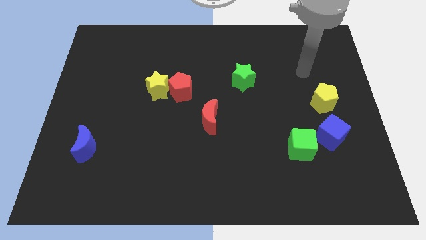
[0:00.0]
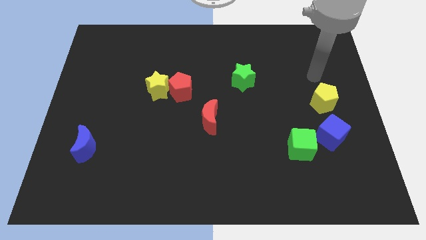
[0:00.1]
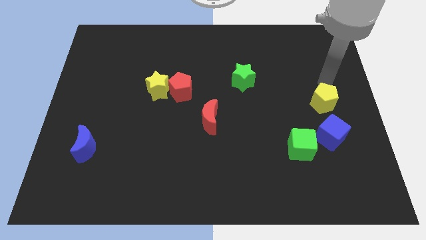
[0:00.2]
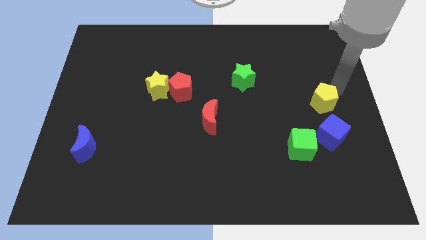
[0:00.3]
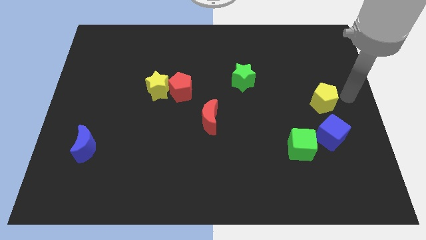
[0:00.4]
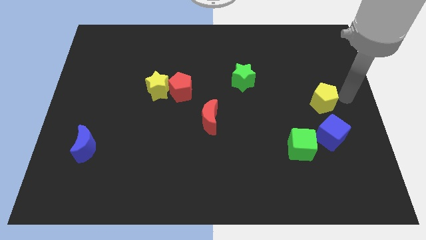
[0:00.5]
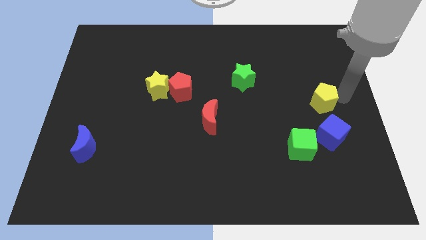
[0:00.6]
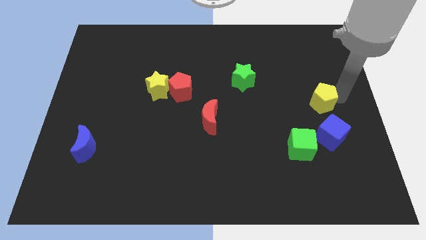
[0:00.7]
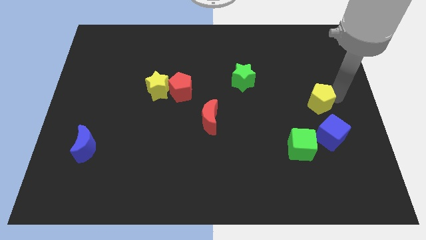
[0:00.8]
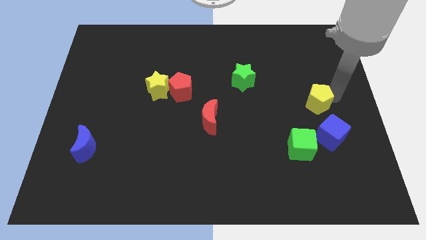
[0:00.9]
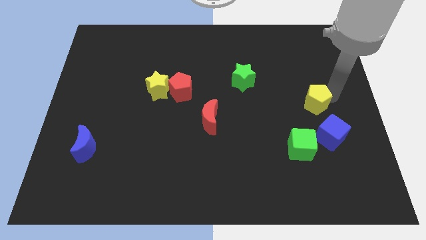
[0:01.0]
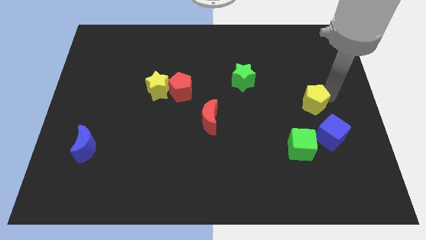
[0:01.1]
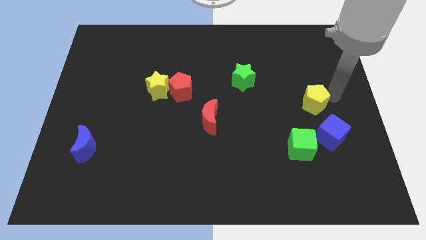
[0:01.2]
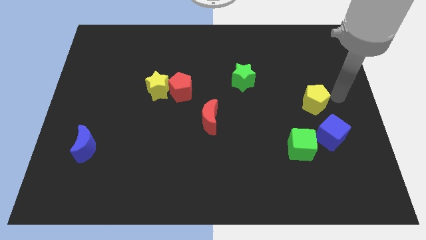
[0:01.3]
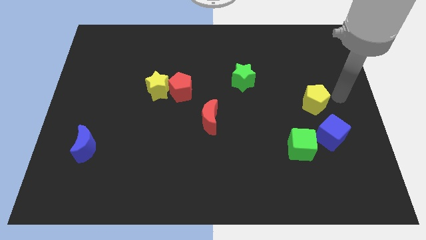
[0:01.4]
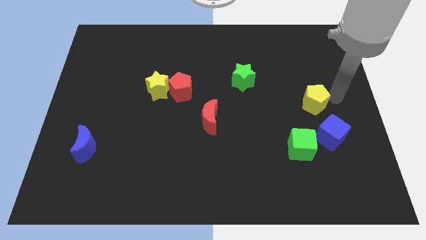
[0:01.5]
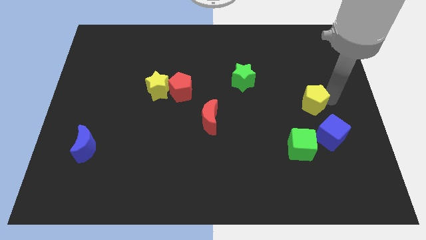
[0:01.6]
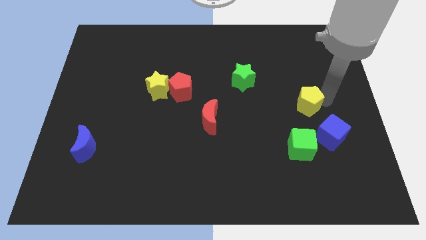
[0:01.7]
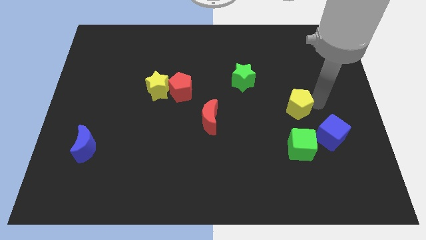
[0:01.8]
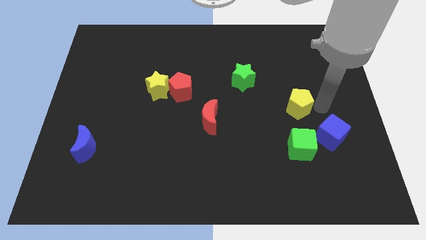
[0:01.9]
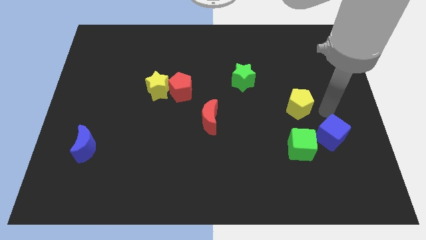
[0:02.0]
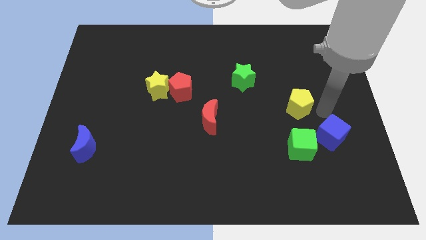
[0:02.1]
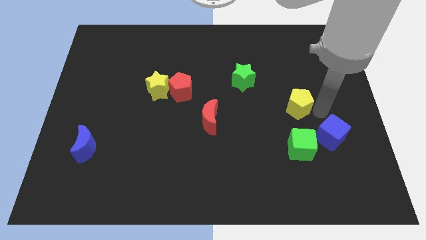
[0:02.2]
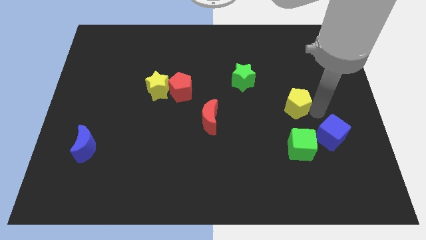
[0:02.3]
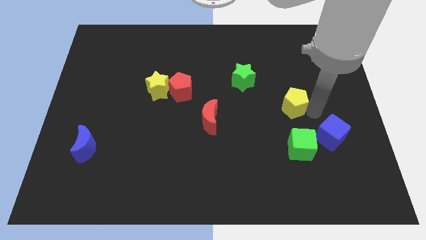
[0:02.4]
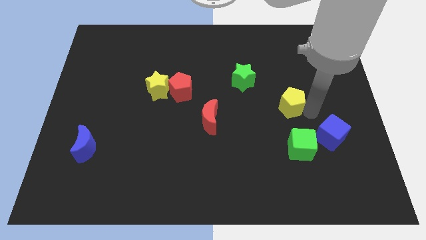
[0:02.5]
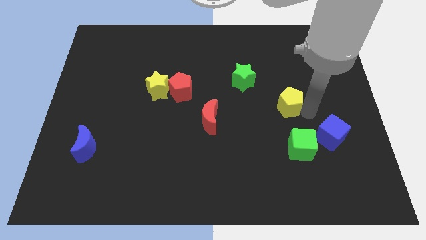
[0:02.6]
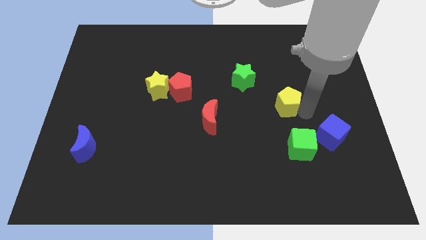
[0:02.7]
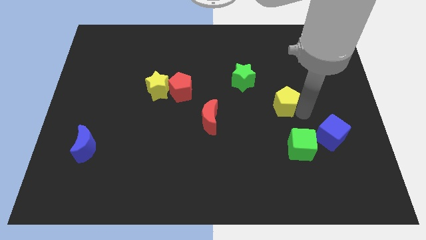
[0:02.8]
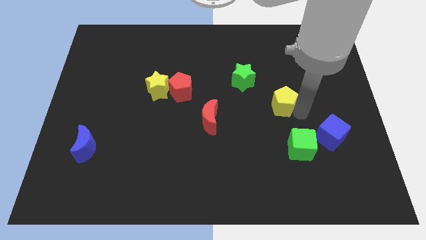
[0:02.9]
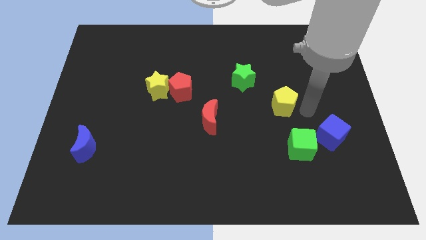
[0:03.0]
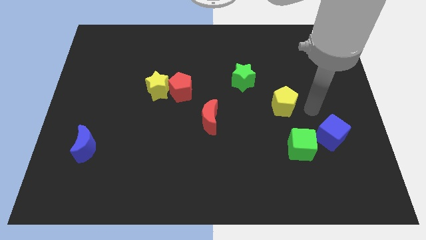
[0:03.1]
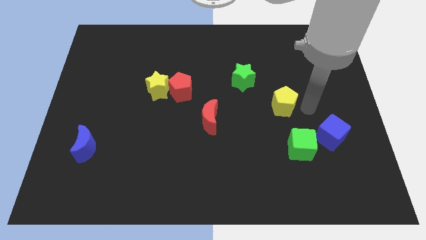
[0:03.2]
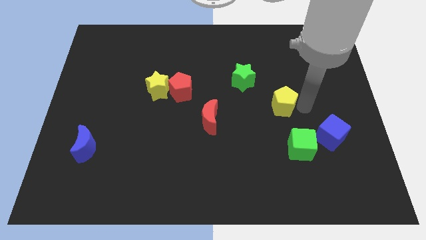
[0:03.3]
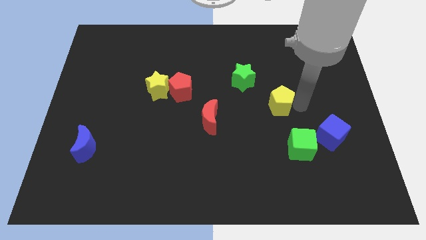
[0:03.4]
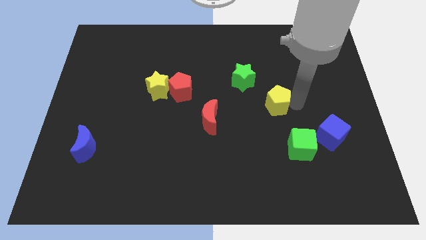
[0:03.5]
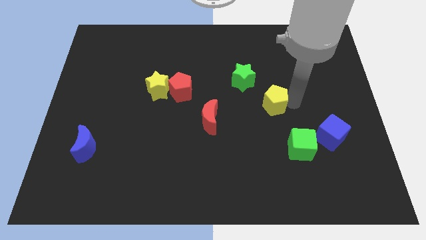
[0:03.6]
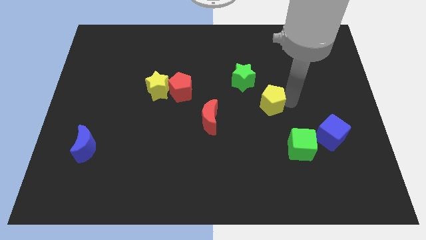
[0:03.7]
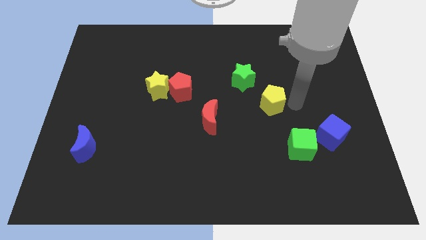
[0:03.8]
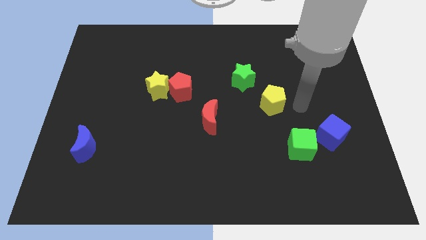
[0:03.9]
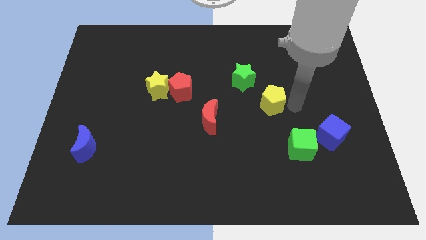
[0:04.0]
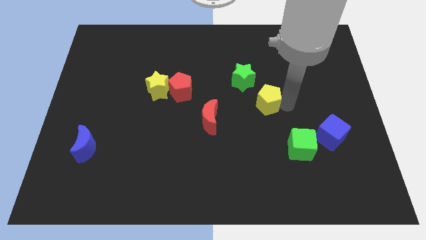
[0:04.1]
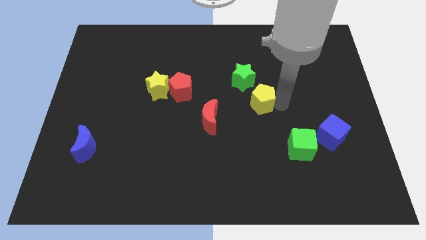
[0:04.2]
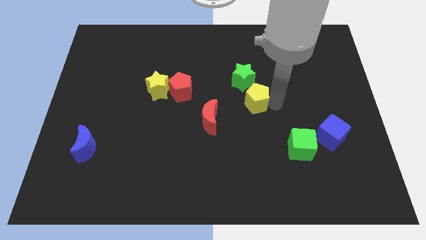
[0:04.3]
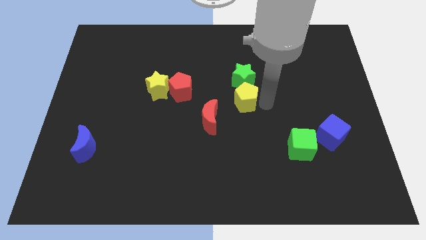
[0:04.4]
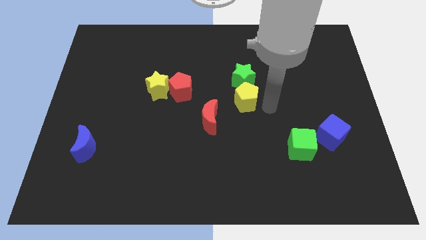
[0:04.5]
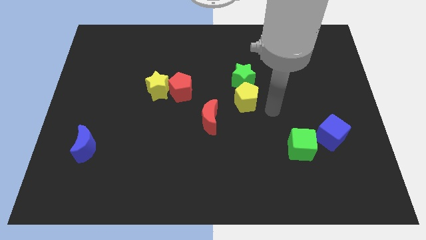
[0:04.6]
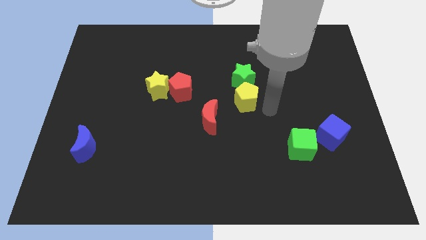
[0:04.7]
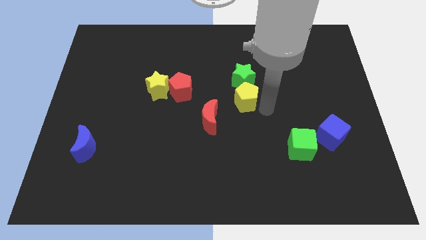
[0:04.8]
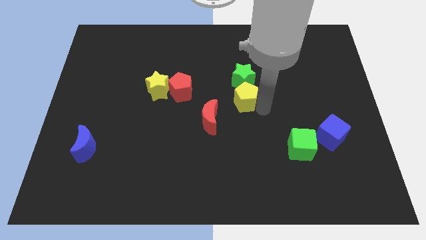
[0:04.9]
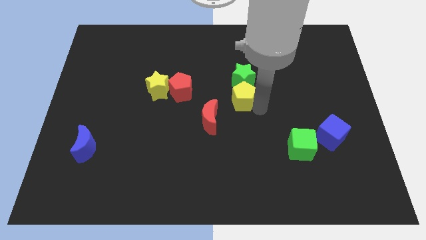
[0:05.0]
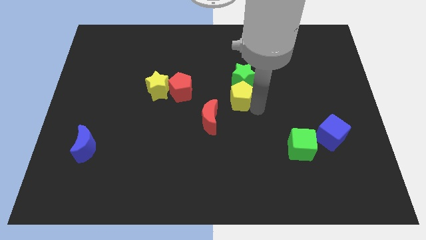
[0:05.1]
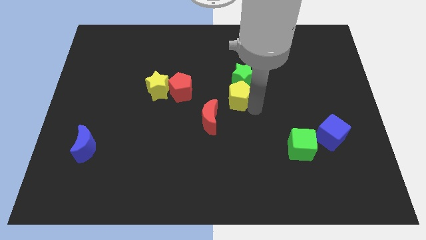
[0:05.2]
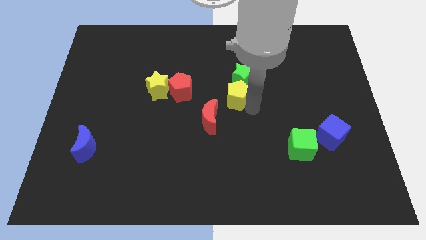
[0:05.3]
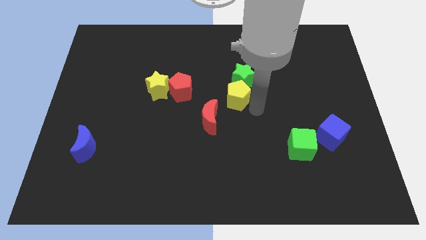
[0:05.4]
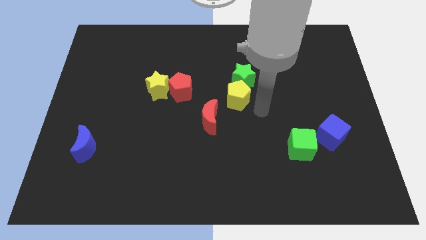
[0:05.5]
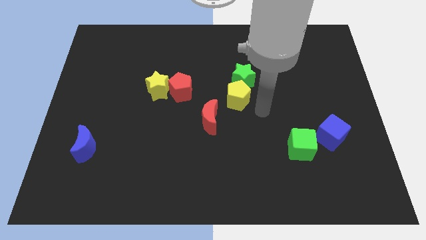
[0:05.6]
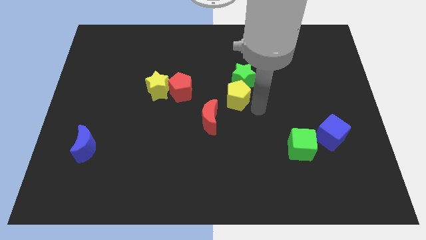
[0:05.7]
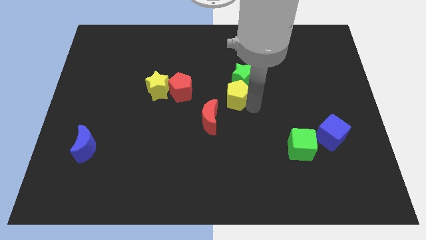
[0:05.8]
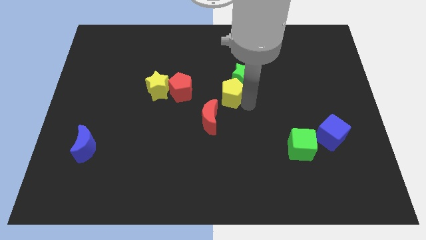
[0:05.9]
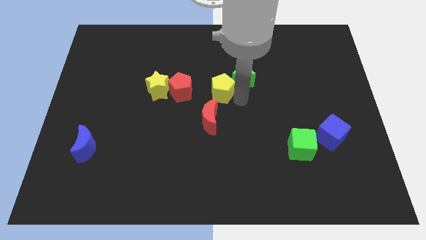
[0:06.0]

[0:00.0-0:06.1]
slide the yellow pentagon to the right side of the yellow star
